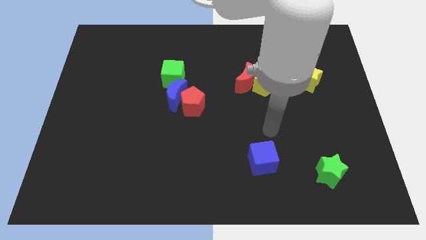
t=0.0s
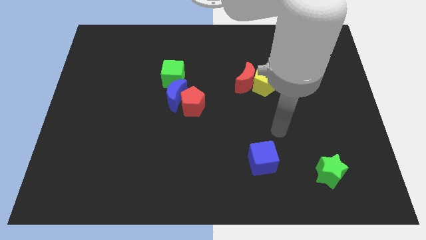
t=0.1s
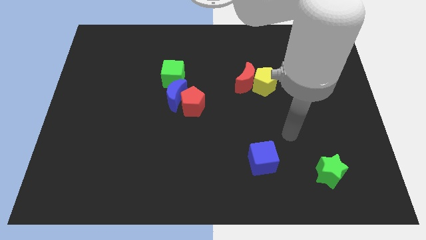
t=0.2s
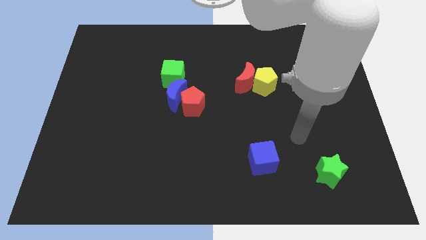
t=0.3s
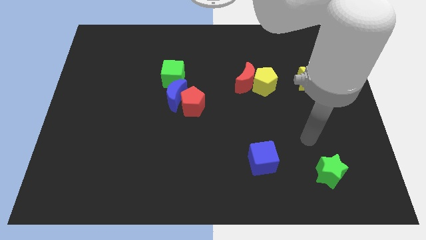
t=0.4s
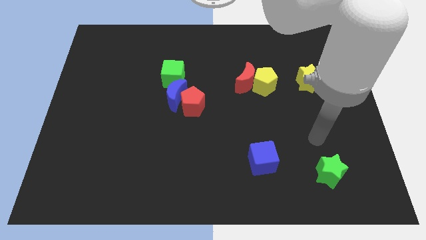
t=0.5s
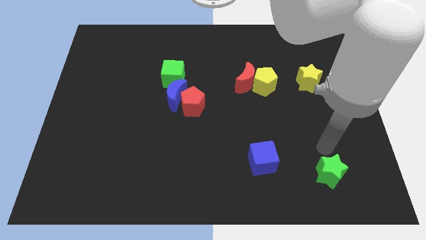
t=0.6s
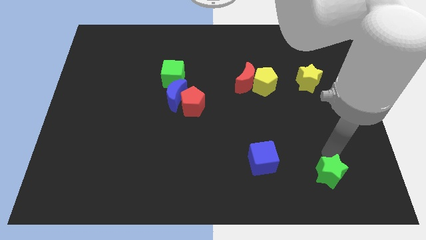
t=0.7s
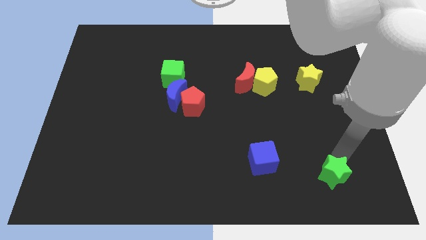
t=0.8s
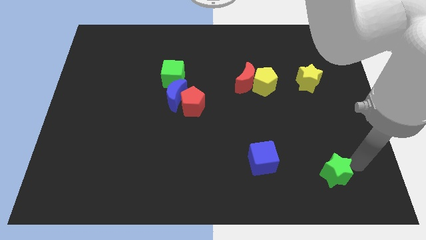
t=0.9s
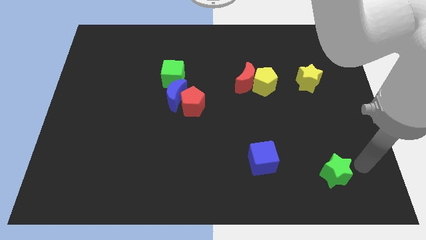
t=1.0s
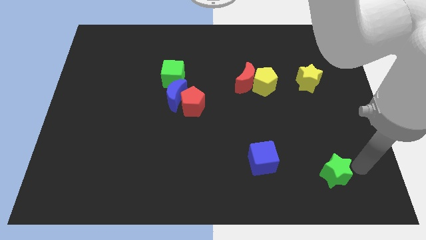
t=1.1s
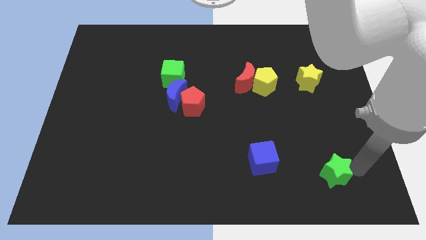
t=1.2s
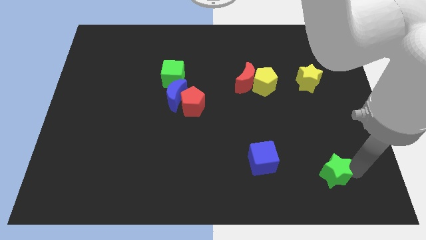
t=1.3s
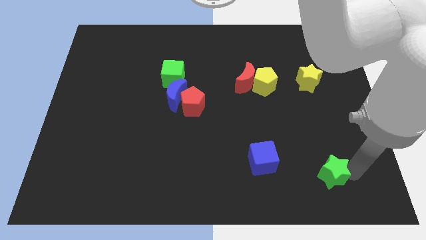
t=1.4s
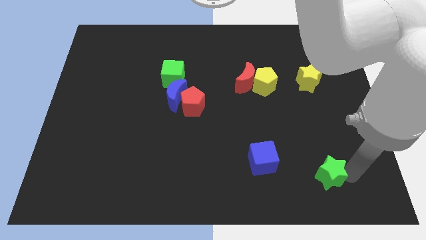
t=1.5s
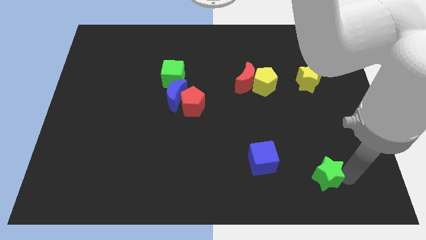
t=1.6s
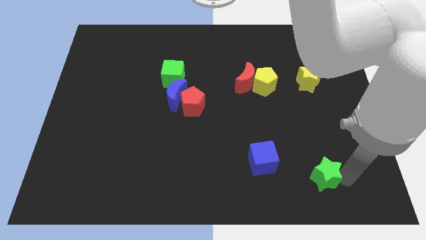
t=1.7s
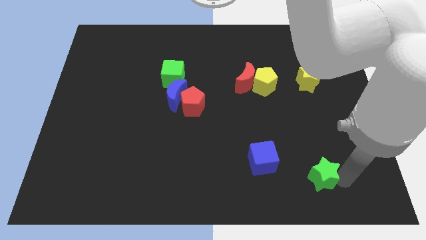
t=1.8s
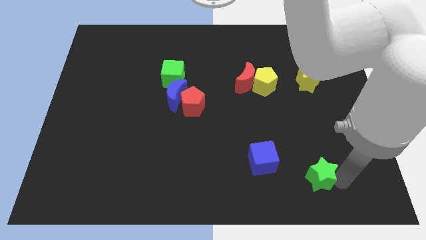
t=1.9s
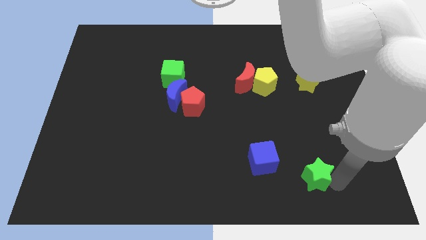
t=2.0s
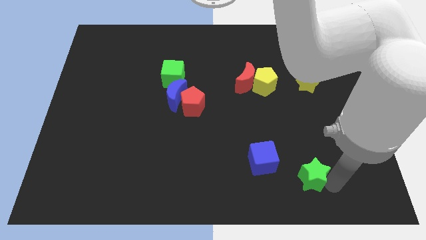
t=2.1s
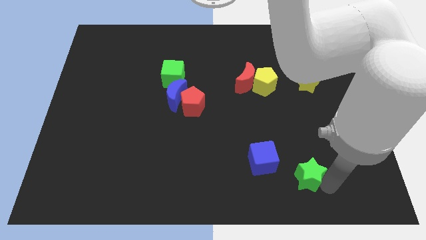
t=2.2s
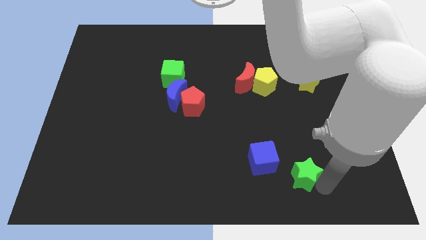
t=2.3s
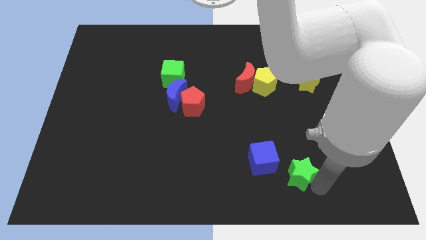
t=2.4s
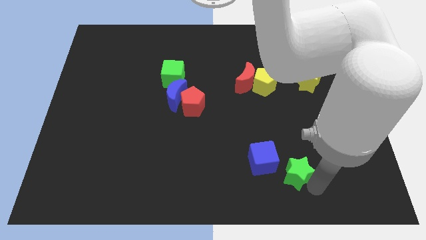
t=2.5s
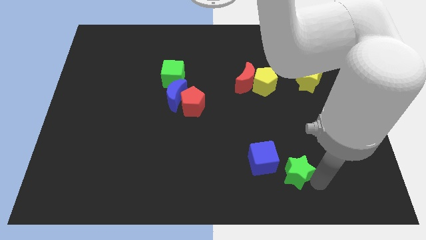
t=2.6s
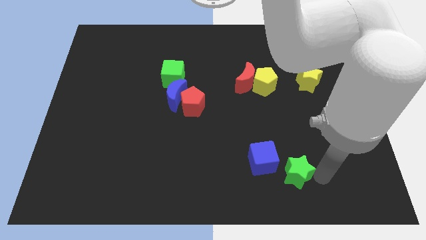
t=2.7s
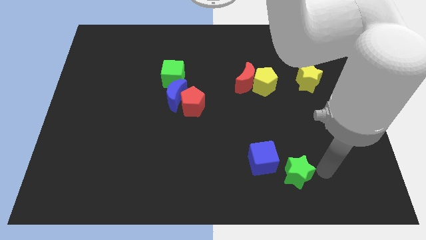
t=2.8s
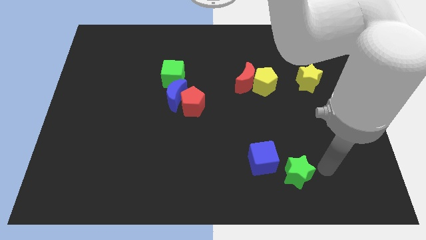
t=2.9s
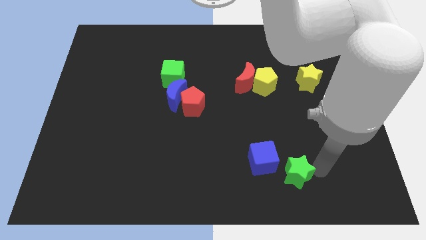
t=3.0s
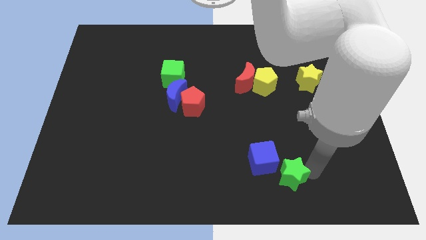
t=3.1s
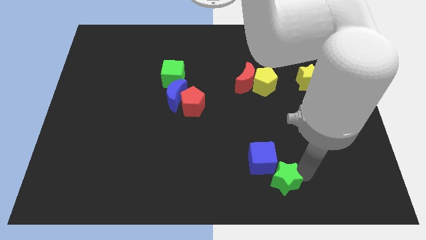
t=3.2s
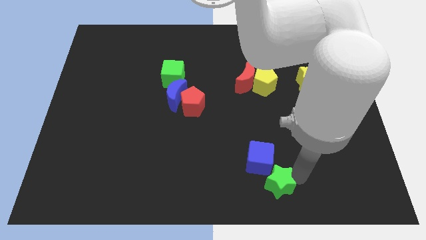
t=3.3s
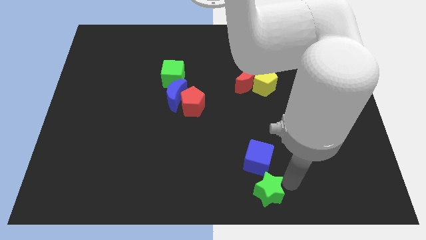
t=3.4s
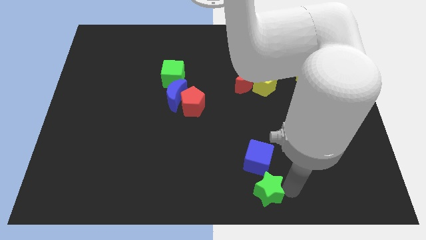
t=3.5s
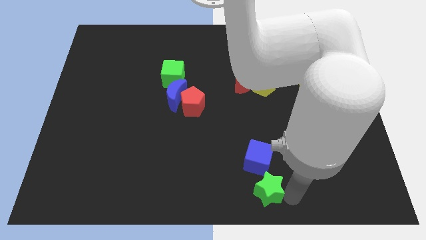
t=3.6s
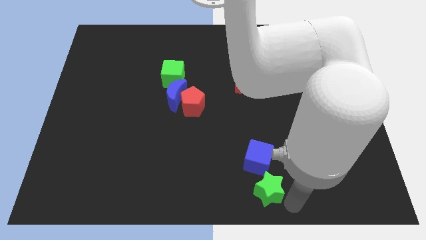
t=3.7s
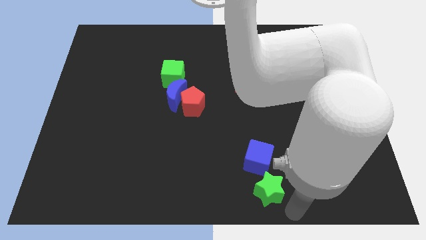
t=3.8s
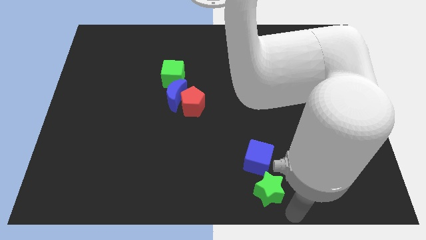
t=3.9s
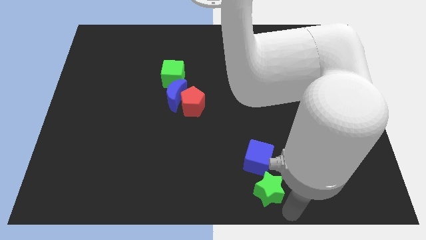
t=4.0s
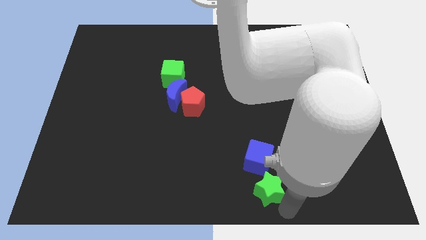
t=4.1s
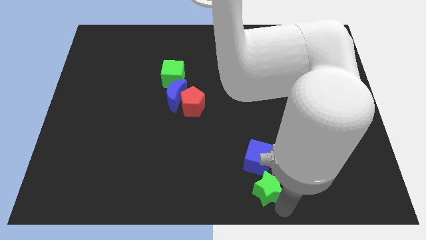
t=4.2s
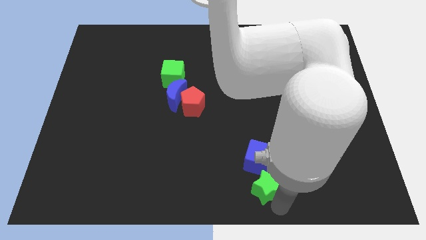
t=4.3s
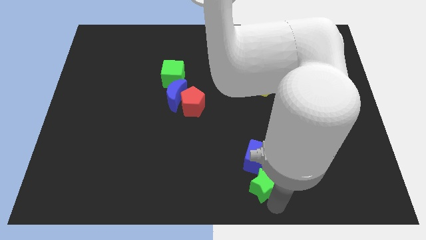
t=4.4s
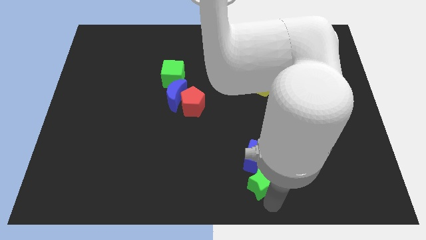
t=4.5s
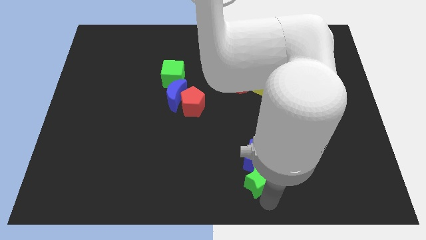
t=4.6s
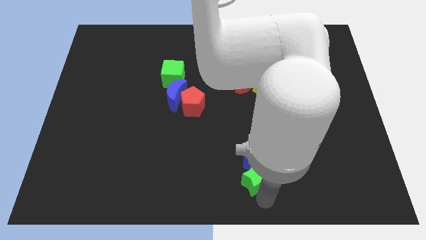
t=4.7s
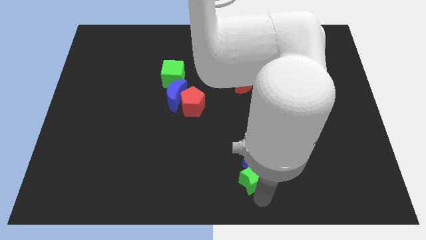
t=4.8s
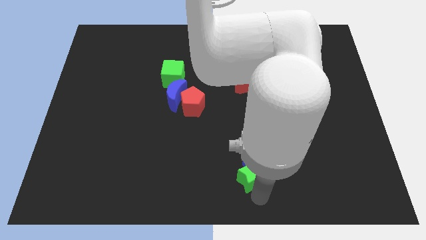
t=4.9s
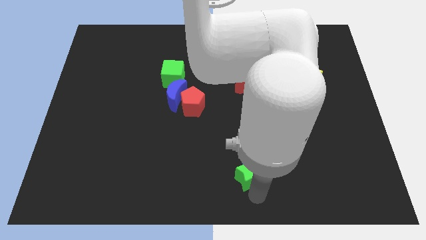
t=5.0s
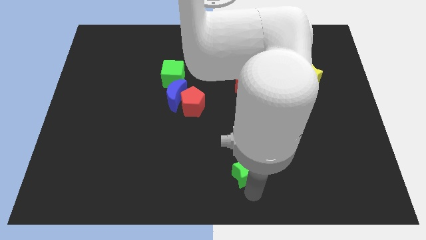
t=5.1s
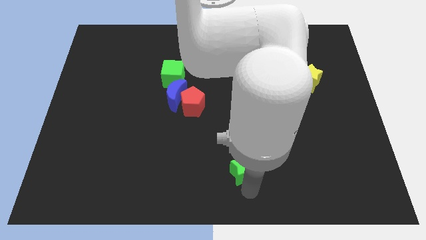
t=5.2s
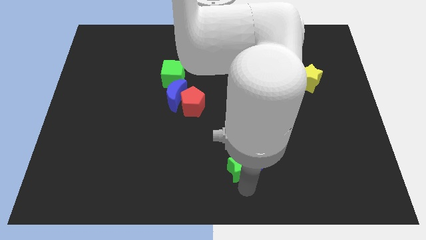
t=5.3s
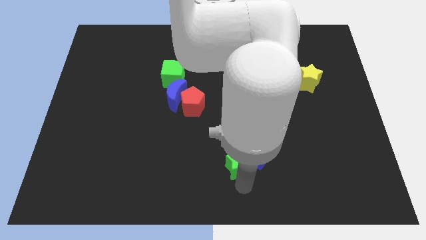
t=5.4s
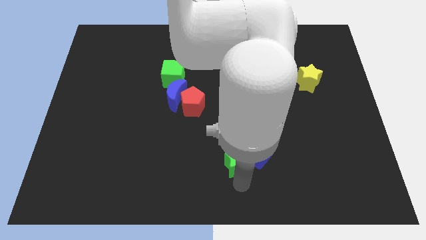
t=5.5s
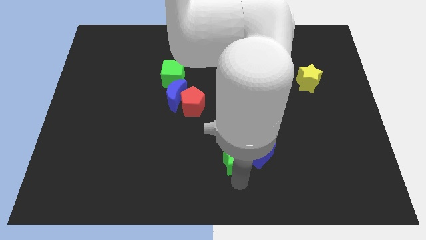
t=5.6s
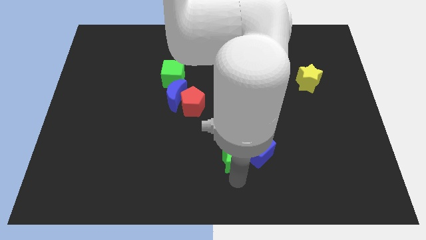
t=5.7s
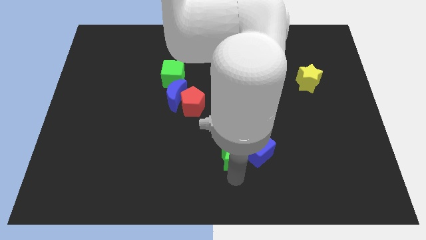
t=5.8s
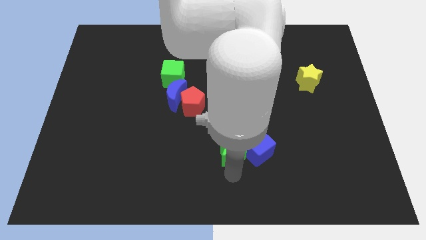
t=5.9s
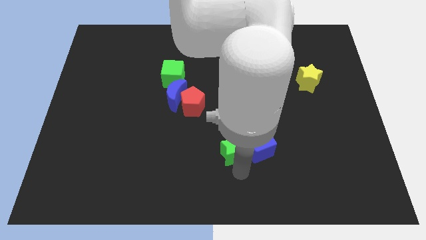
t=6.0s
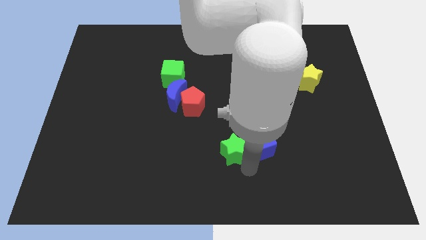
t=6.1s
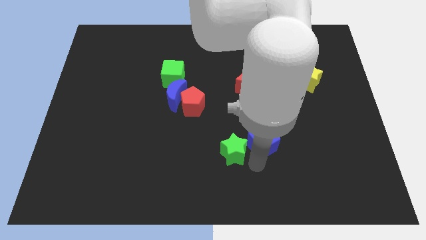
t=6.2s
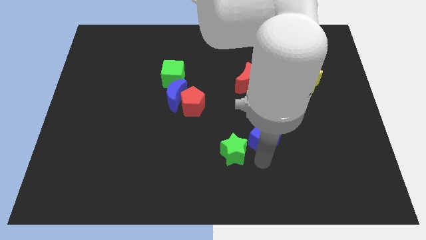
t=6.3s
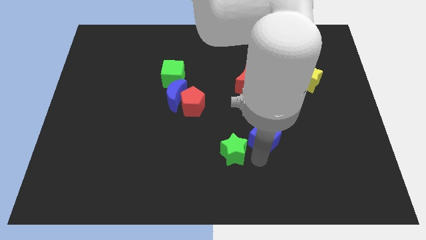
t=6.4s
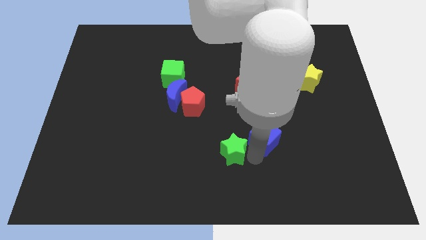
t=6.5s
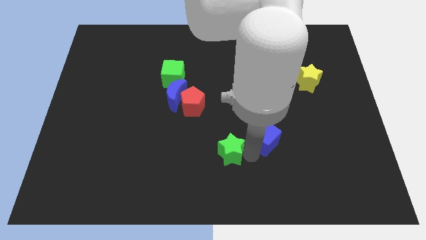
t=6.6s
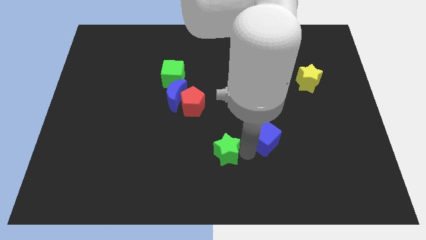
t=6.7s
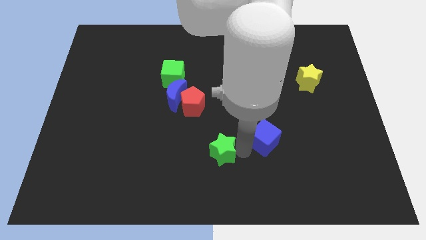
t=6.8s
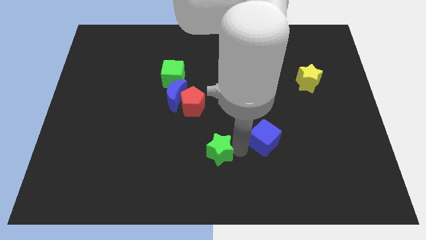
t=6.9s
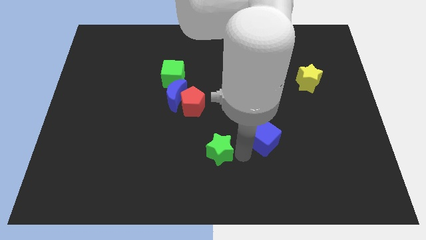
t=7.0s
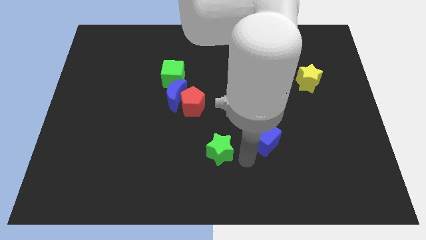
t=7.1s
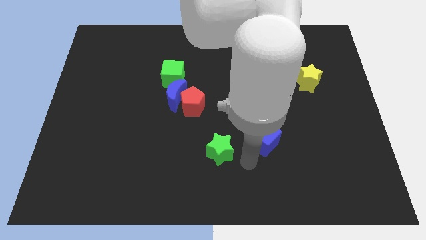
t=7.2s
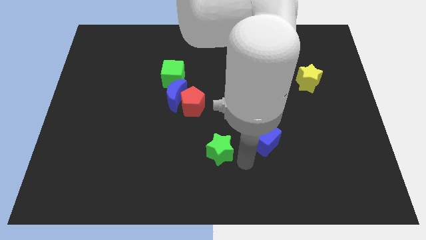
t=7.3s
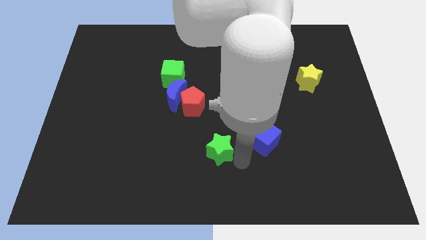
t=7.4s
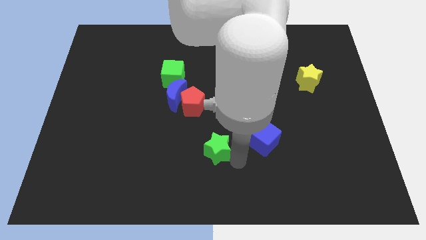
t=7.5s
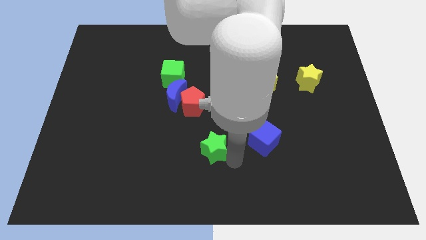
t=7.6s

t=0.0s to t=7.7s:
slide the green star below the red pentagon
